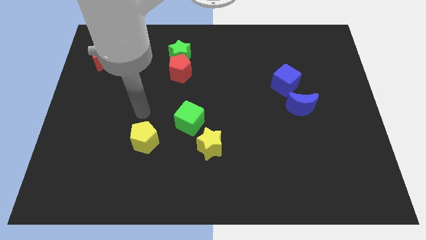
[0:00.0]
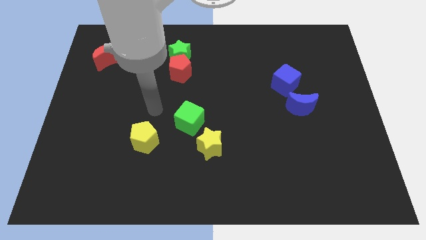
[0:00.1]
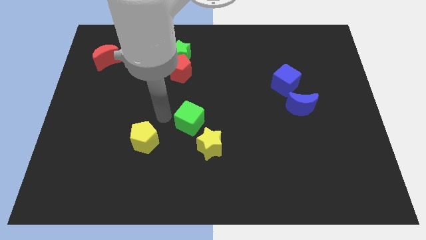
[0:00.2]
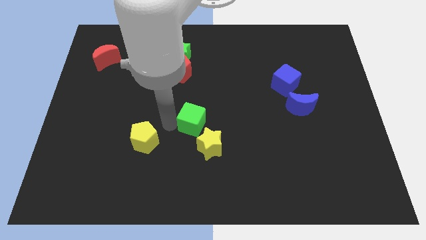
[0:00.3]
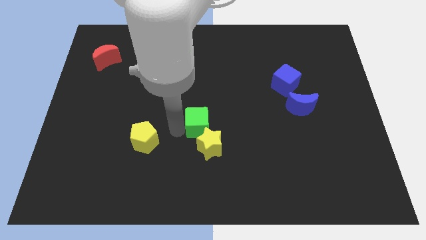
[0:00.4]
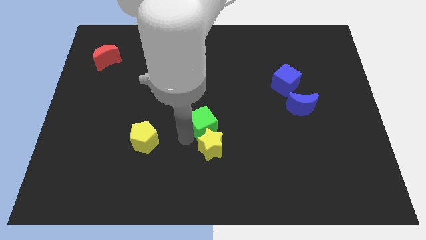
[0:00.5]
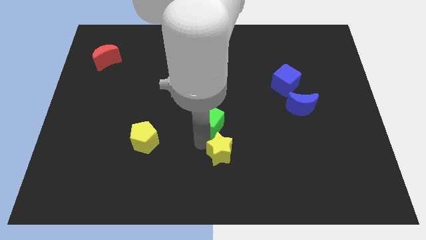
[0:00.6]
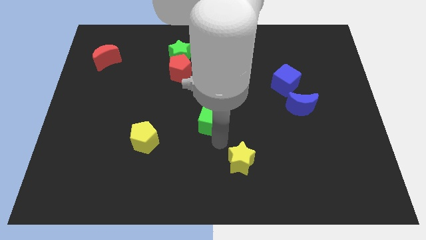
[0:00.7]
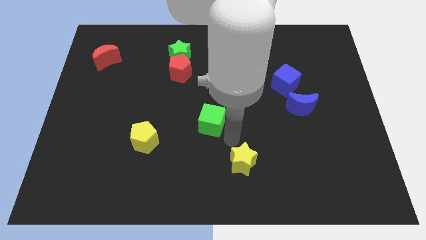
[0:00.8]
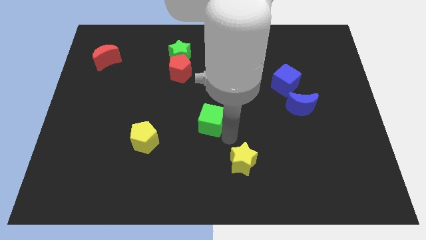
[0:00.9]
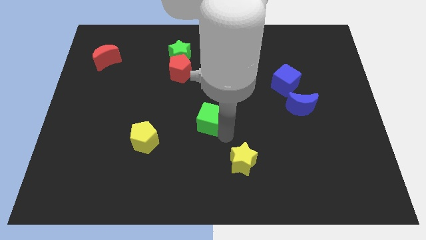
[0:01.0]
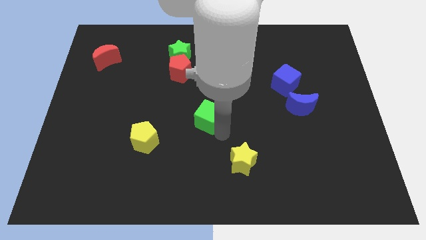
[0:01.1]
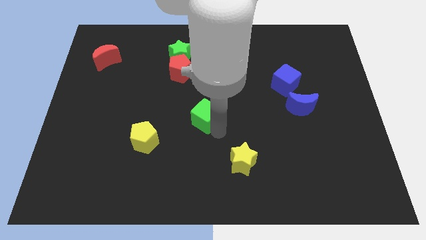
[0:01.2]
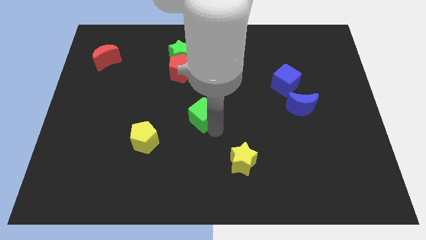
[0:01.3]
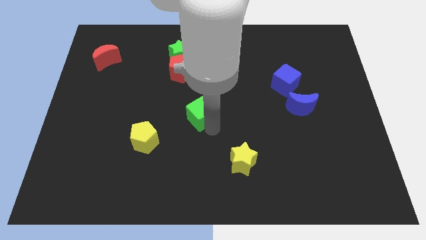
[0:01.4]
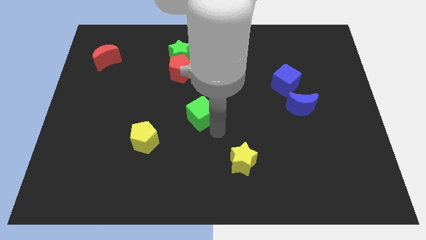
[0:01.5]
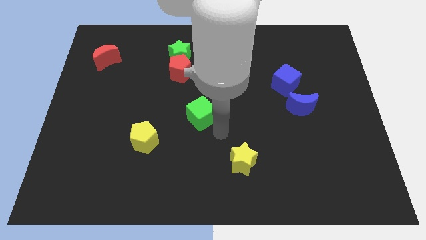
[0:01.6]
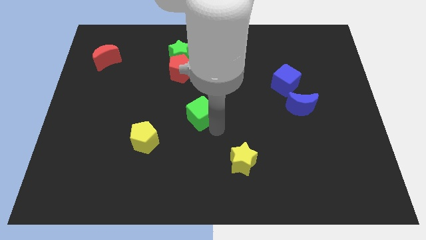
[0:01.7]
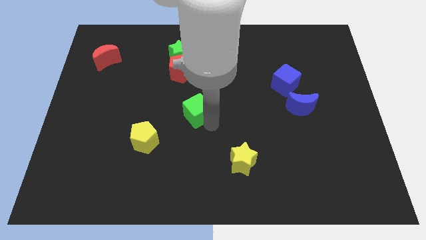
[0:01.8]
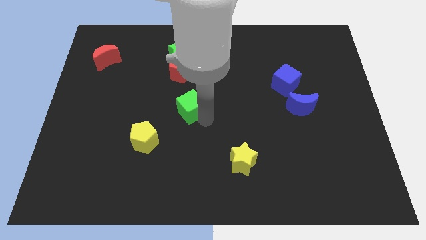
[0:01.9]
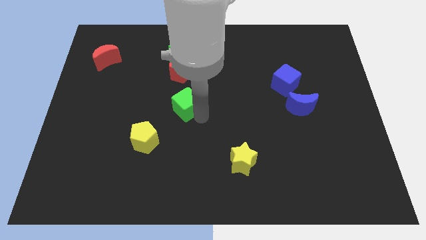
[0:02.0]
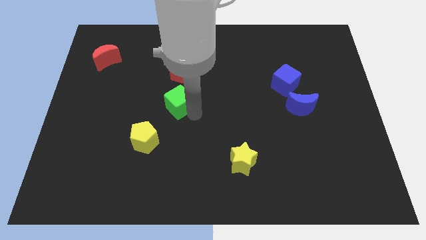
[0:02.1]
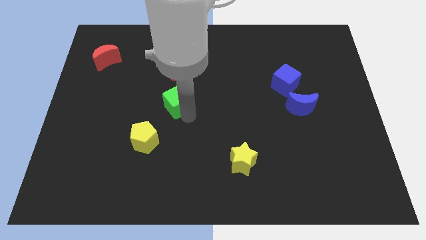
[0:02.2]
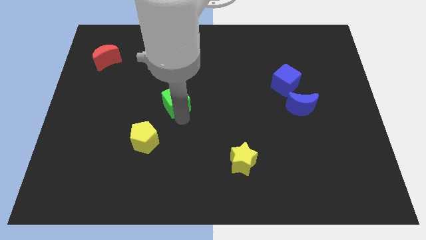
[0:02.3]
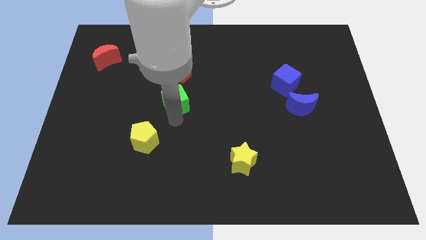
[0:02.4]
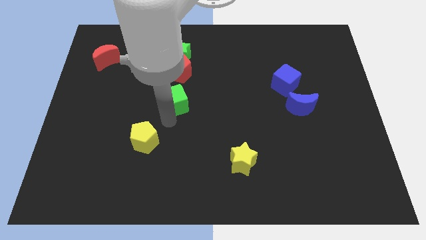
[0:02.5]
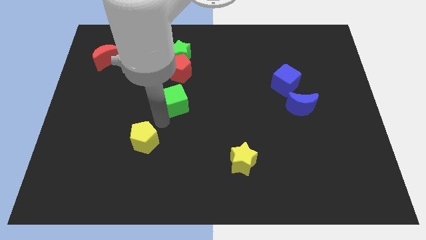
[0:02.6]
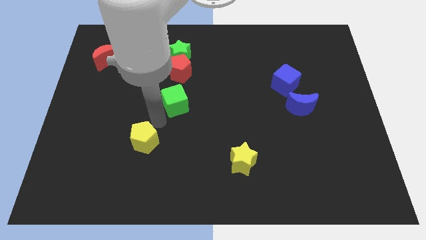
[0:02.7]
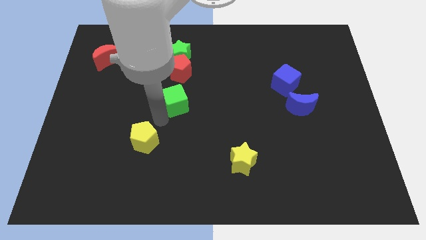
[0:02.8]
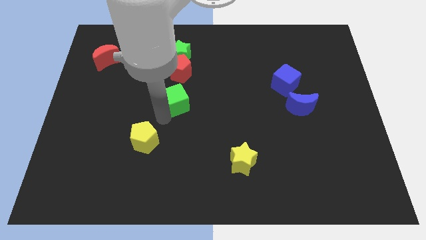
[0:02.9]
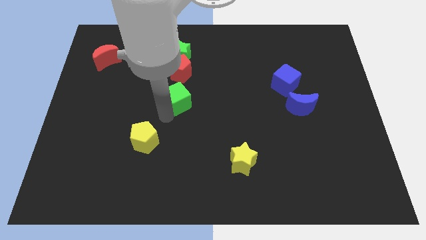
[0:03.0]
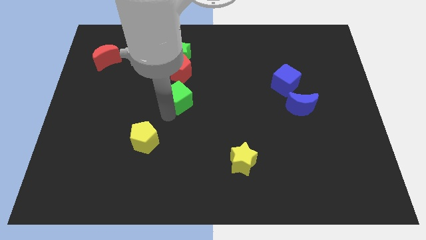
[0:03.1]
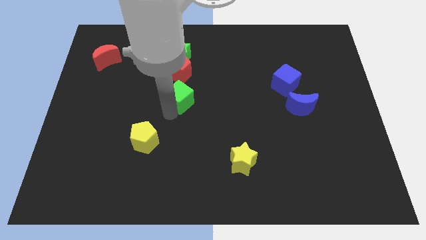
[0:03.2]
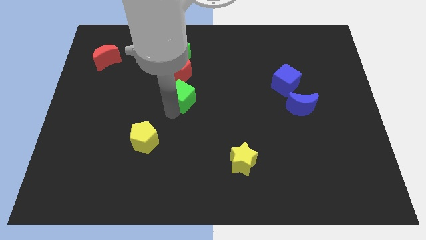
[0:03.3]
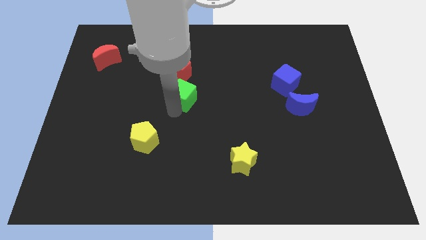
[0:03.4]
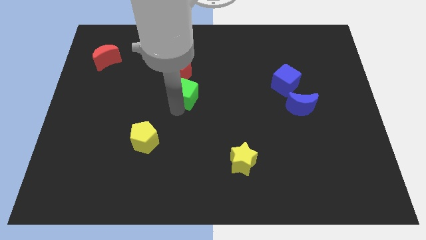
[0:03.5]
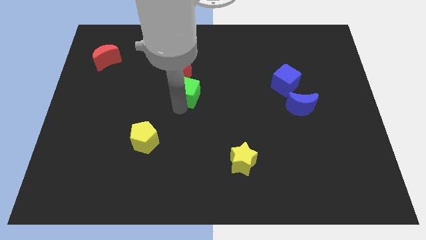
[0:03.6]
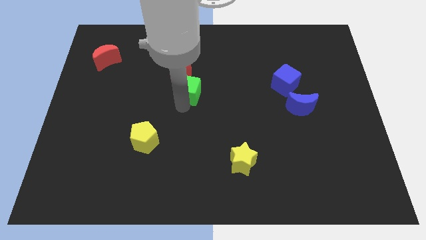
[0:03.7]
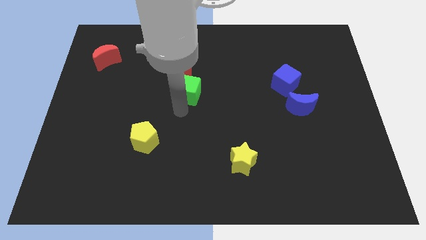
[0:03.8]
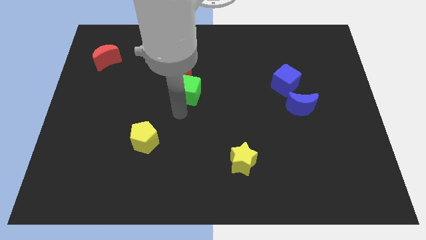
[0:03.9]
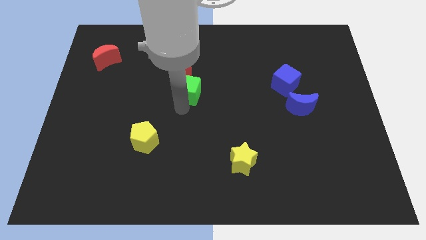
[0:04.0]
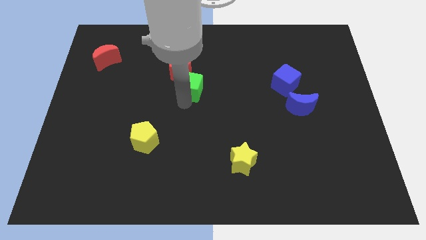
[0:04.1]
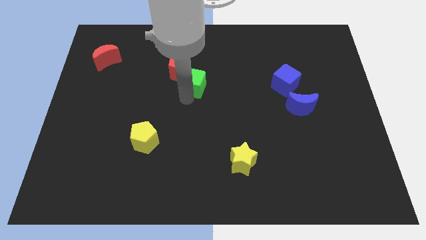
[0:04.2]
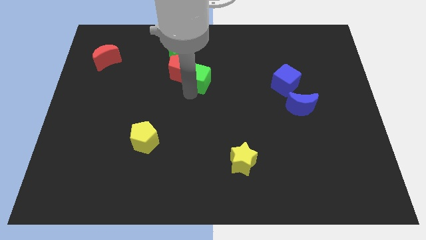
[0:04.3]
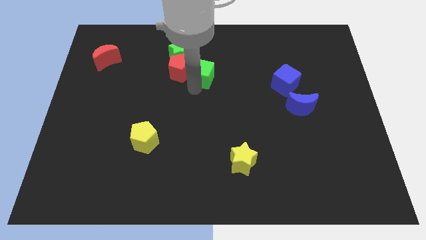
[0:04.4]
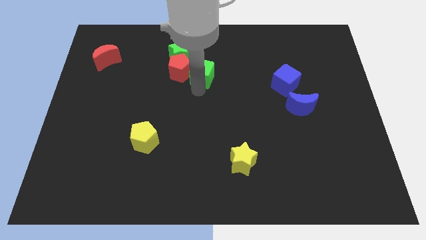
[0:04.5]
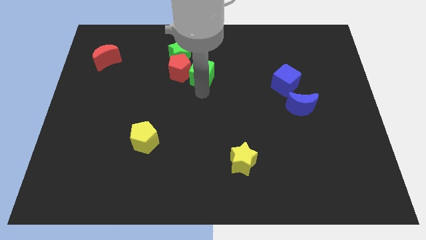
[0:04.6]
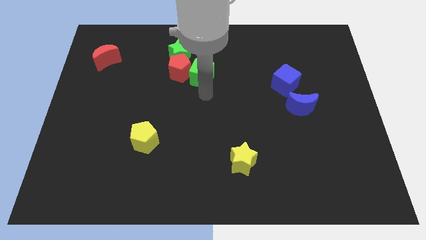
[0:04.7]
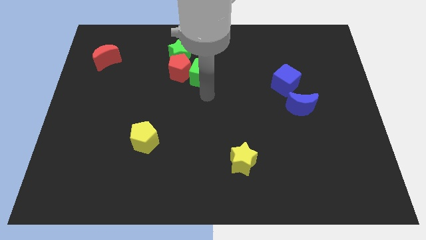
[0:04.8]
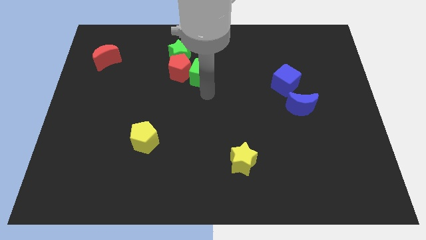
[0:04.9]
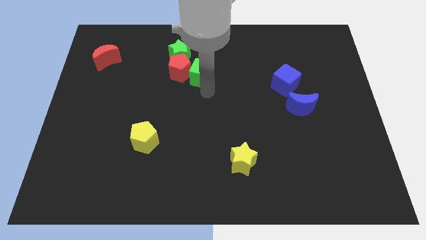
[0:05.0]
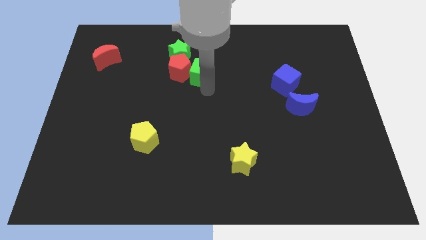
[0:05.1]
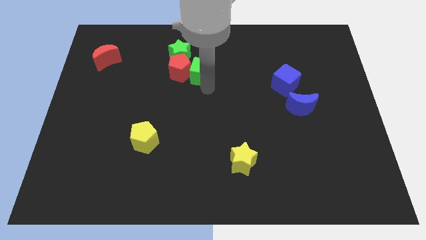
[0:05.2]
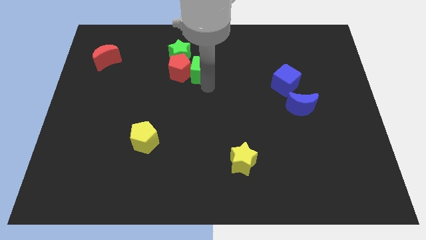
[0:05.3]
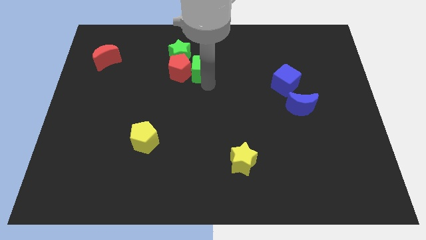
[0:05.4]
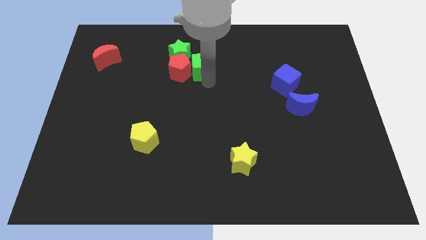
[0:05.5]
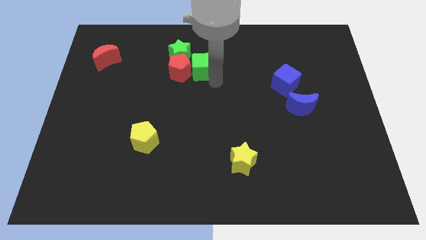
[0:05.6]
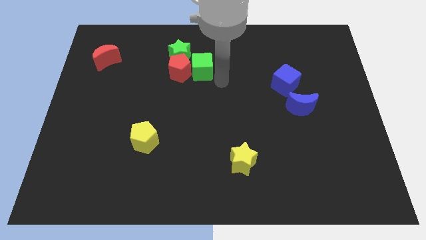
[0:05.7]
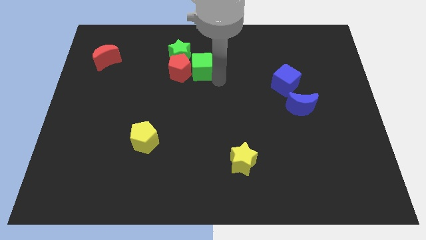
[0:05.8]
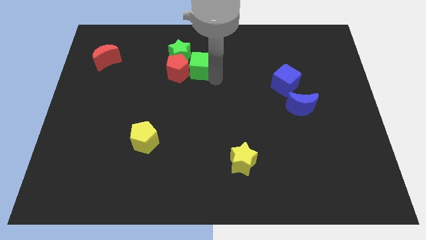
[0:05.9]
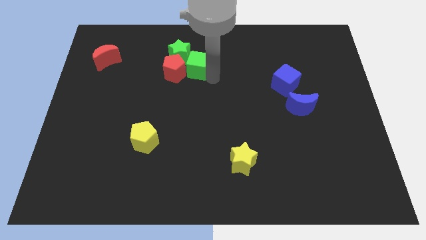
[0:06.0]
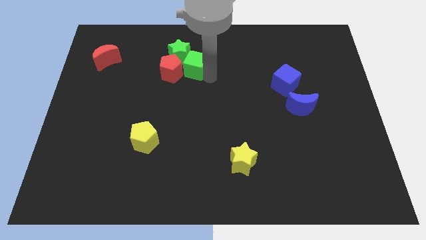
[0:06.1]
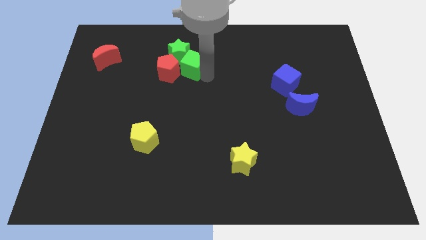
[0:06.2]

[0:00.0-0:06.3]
push the green cube to the green star

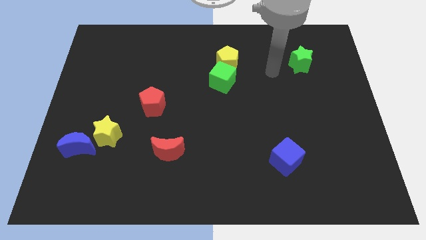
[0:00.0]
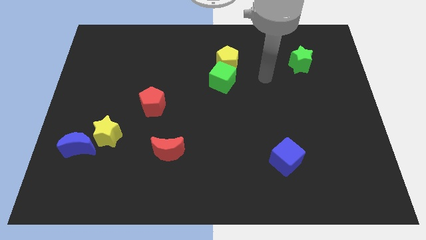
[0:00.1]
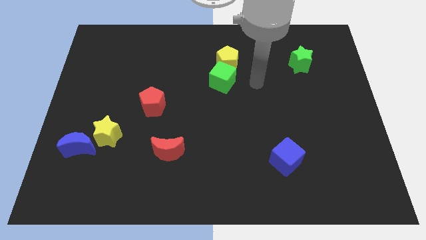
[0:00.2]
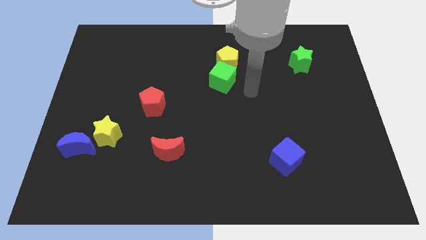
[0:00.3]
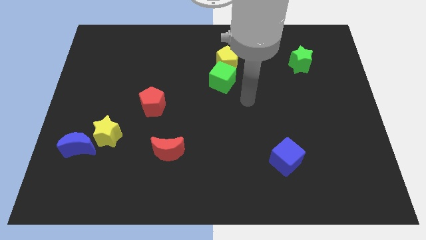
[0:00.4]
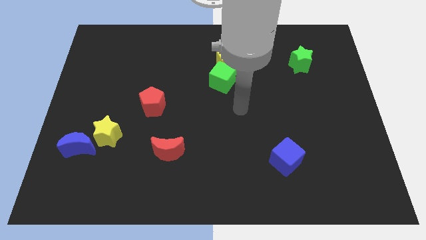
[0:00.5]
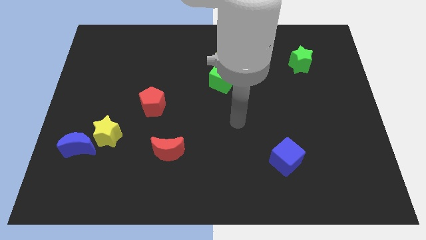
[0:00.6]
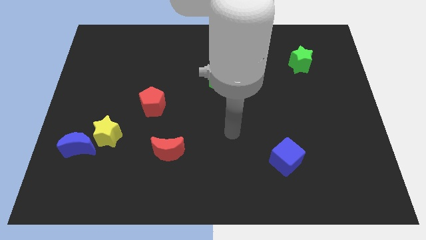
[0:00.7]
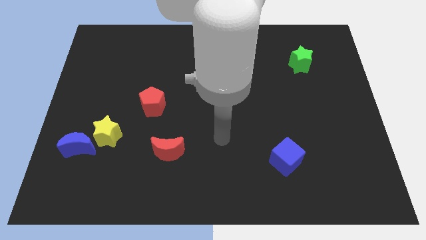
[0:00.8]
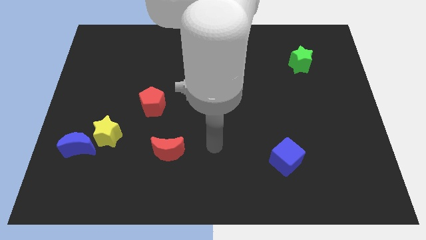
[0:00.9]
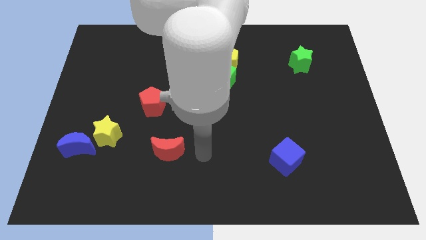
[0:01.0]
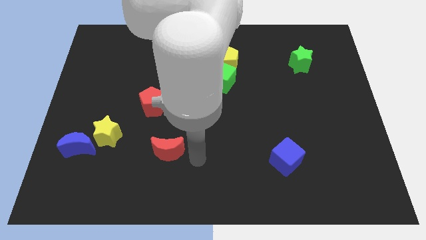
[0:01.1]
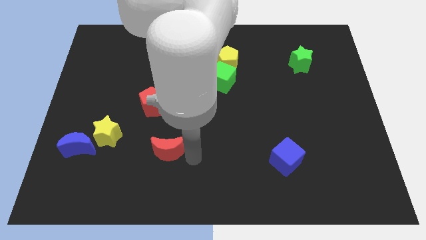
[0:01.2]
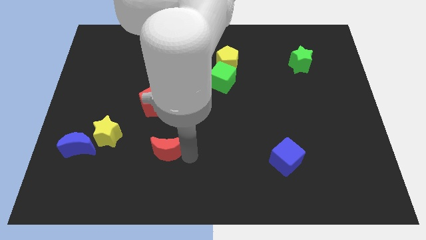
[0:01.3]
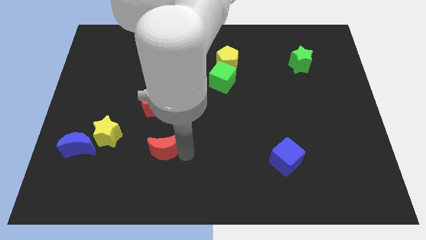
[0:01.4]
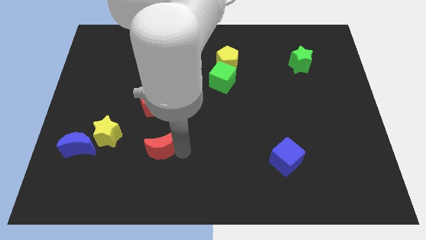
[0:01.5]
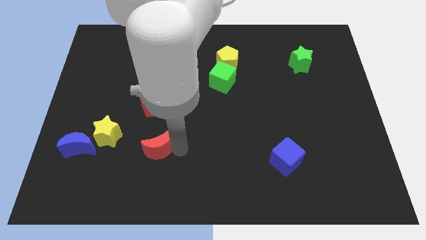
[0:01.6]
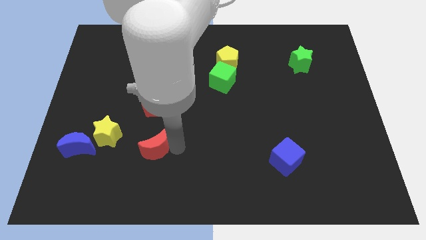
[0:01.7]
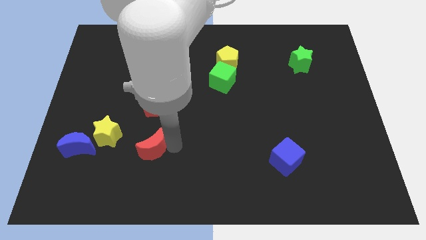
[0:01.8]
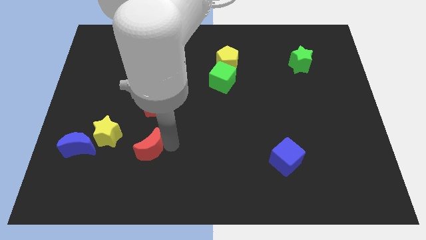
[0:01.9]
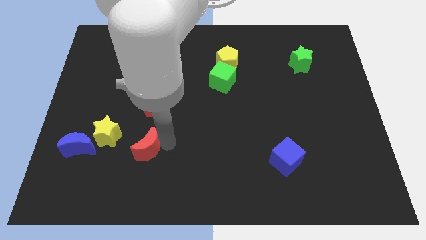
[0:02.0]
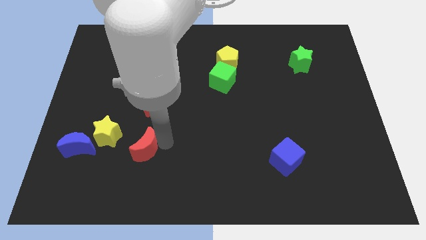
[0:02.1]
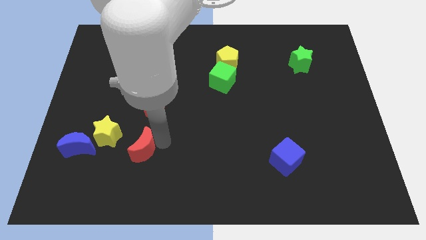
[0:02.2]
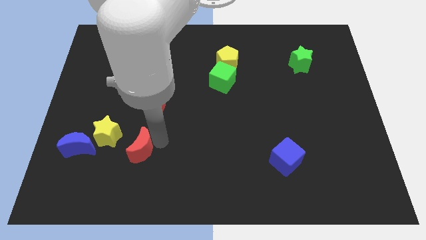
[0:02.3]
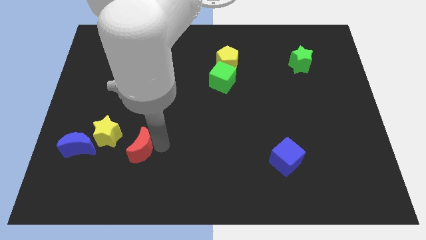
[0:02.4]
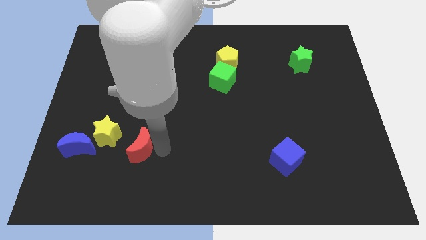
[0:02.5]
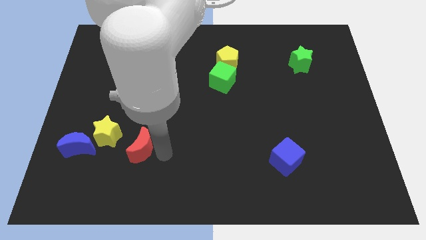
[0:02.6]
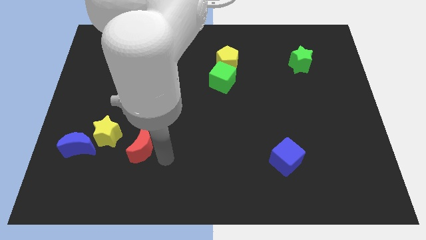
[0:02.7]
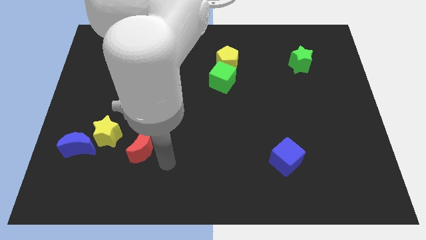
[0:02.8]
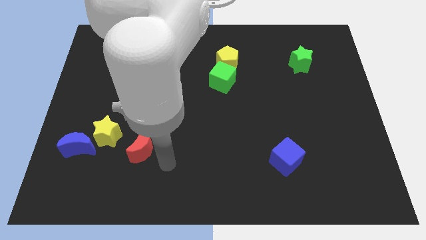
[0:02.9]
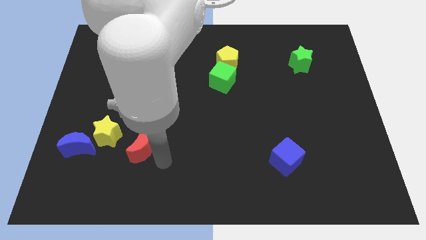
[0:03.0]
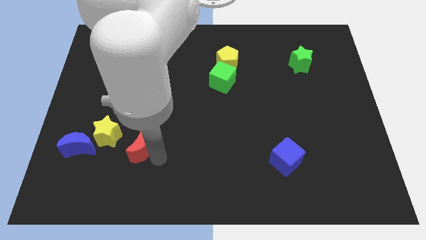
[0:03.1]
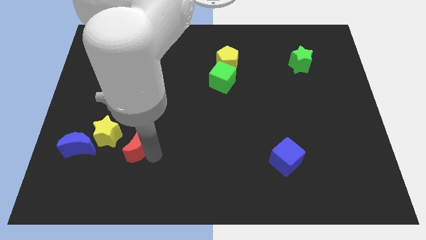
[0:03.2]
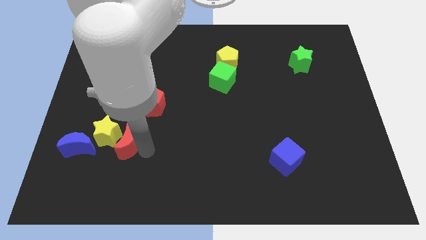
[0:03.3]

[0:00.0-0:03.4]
put the red moon next to the yellow star
